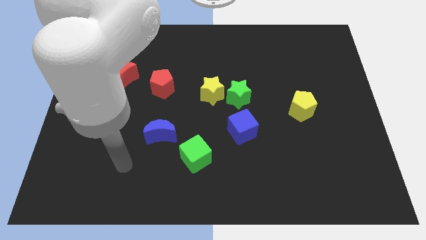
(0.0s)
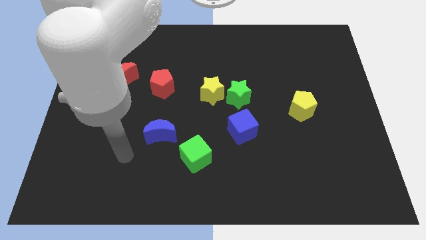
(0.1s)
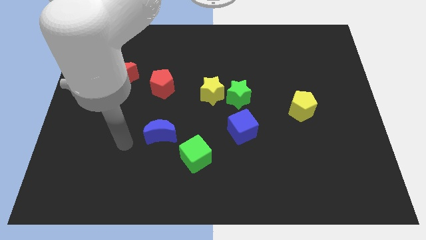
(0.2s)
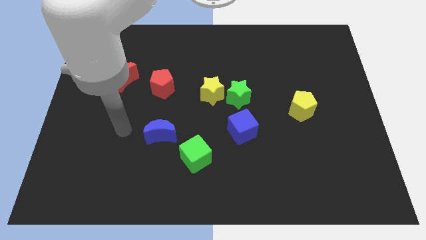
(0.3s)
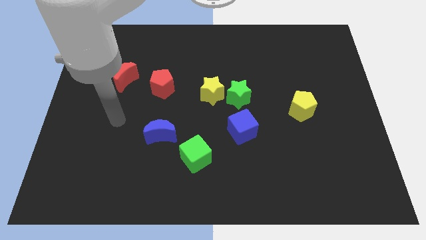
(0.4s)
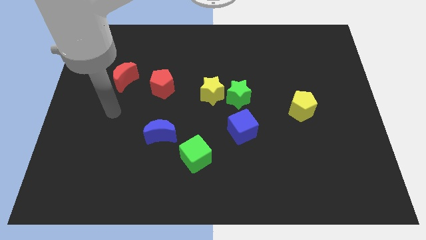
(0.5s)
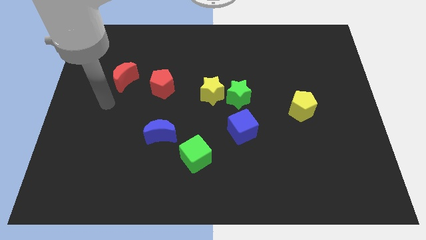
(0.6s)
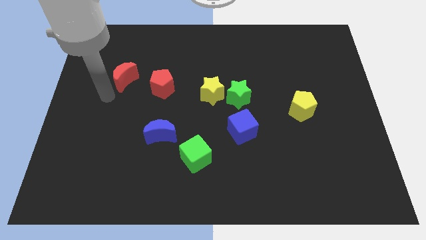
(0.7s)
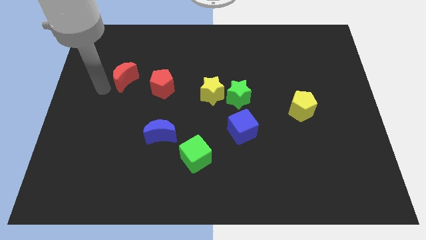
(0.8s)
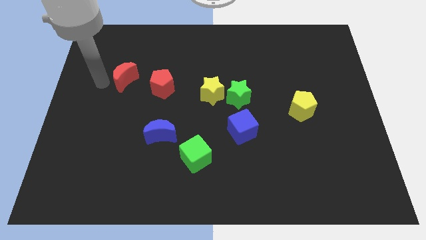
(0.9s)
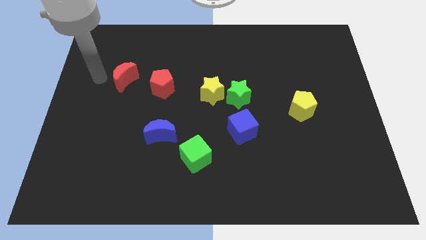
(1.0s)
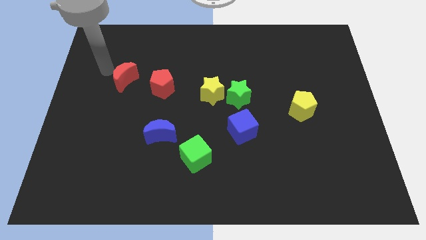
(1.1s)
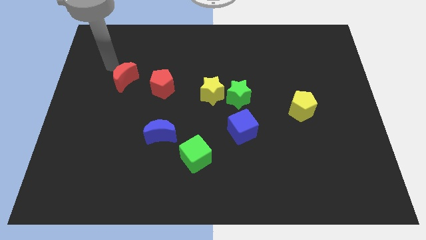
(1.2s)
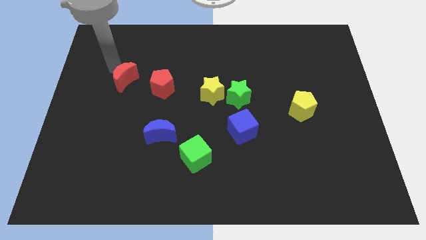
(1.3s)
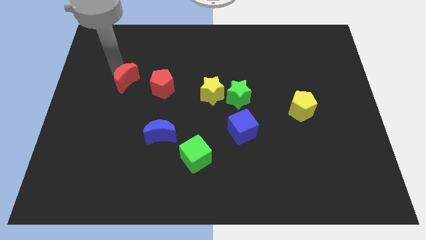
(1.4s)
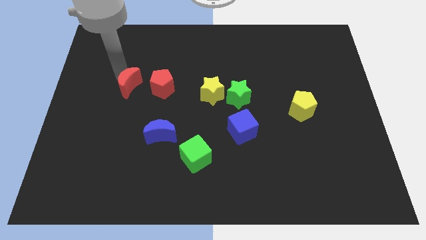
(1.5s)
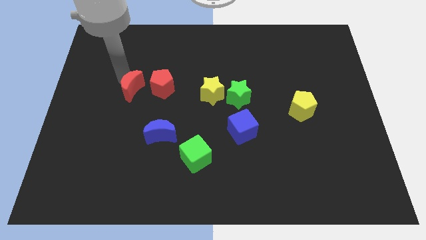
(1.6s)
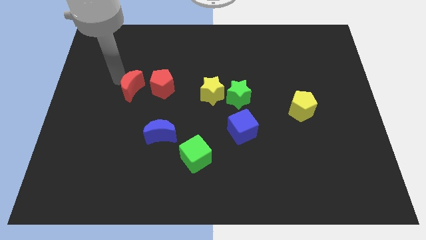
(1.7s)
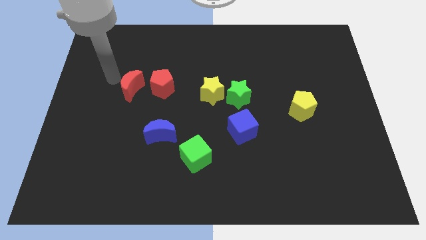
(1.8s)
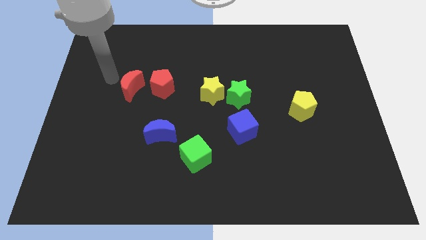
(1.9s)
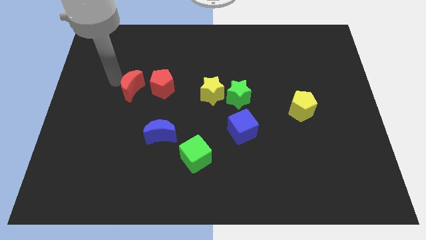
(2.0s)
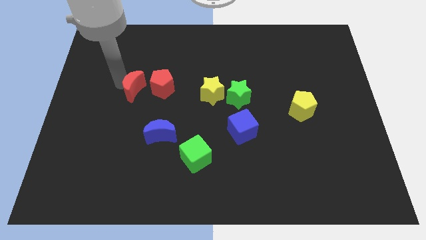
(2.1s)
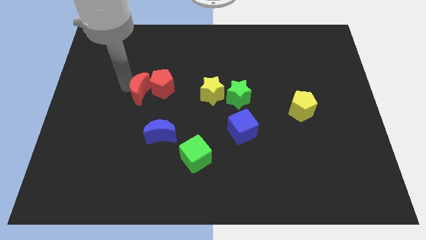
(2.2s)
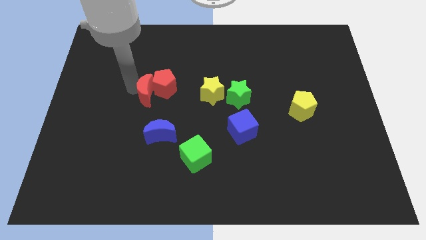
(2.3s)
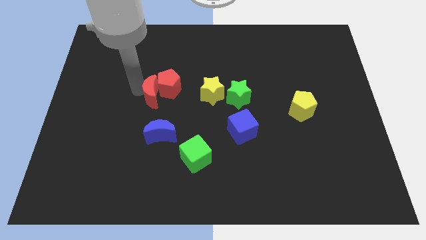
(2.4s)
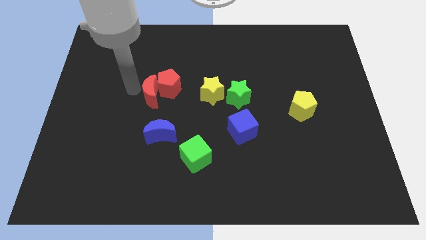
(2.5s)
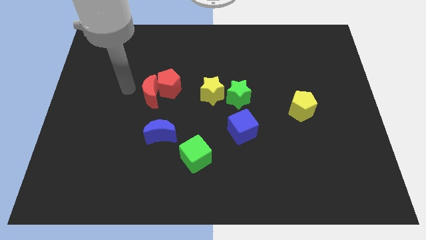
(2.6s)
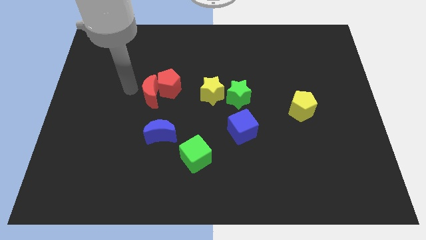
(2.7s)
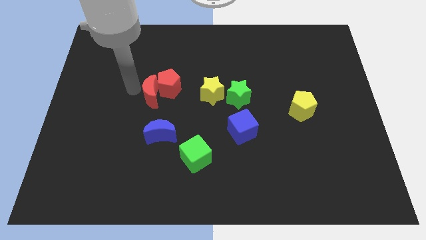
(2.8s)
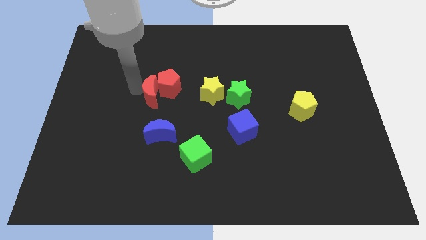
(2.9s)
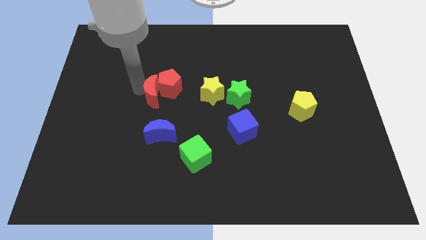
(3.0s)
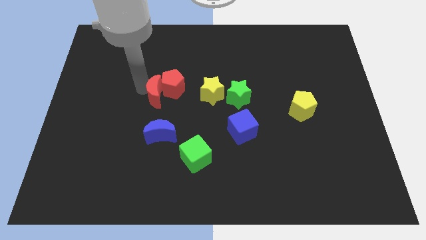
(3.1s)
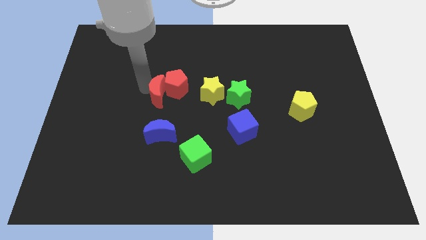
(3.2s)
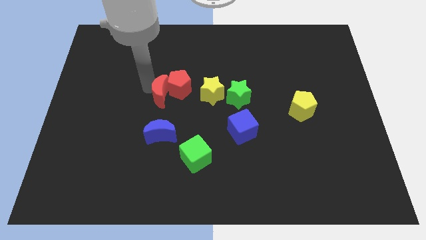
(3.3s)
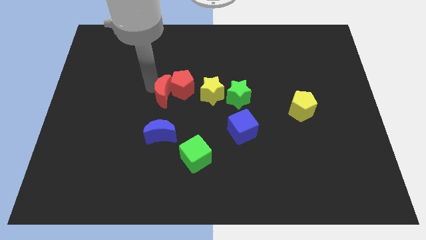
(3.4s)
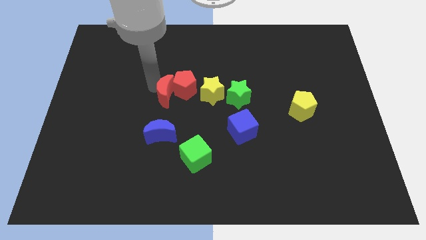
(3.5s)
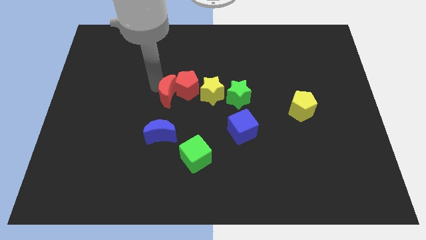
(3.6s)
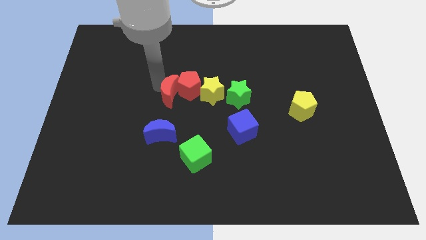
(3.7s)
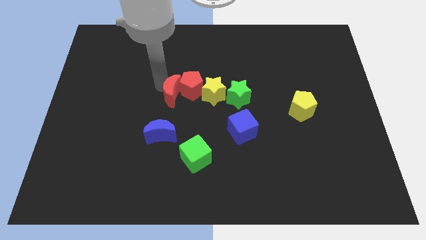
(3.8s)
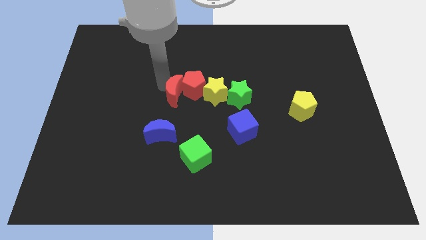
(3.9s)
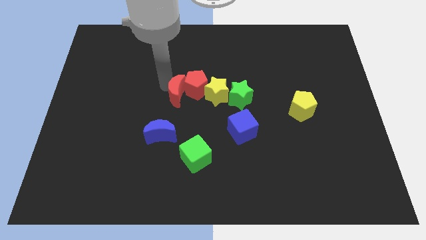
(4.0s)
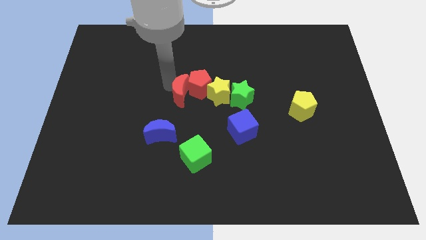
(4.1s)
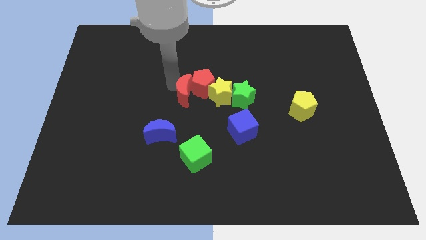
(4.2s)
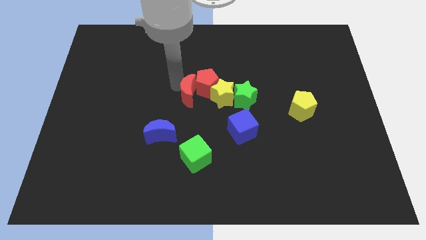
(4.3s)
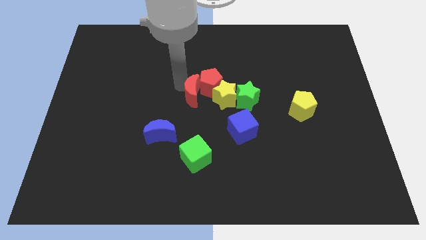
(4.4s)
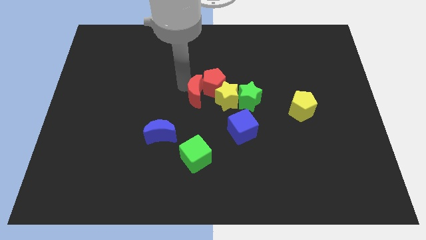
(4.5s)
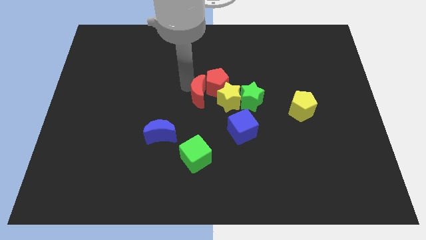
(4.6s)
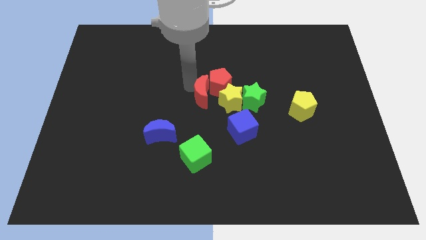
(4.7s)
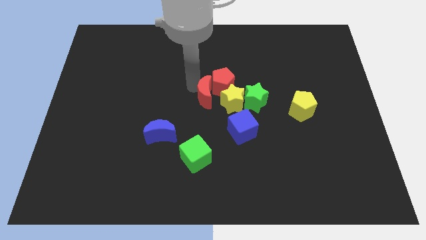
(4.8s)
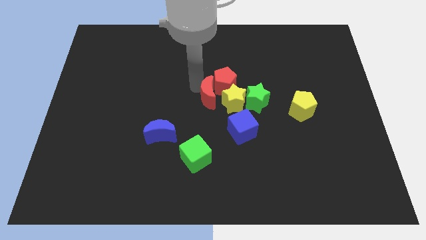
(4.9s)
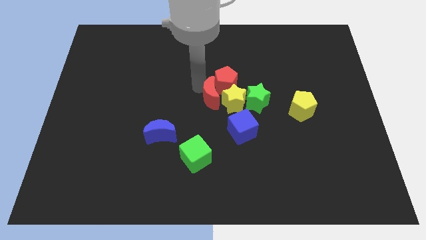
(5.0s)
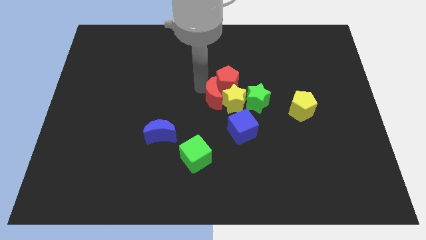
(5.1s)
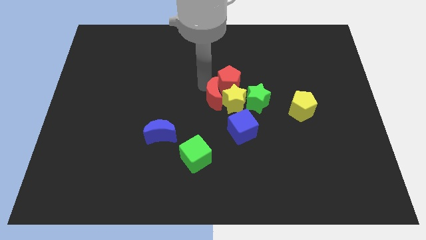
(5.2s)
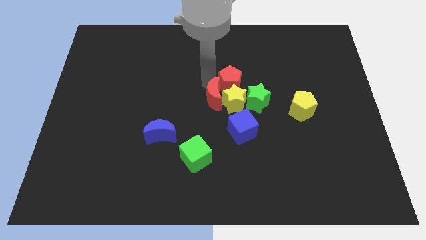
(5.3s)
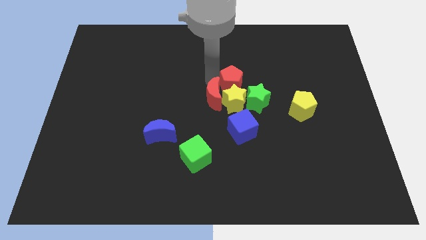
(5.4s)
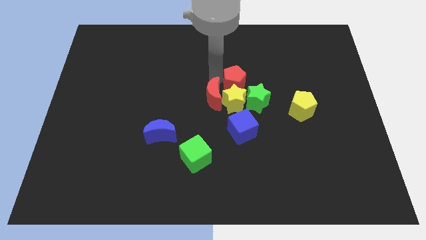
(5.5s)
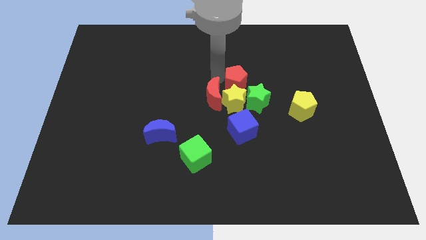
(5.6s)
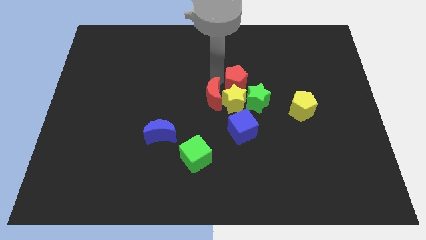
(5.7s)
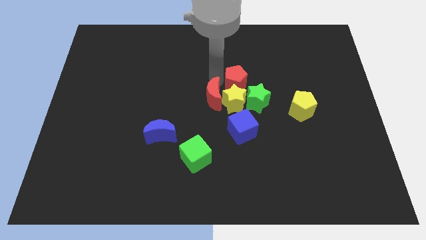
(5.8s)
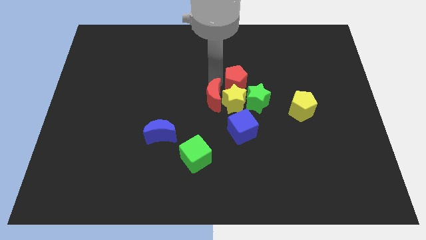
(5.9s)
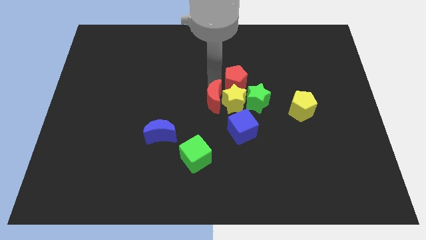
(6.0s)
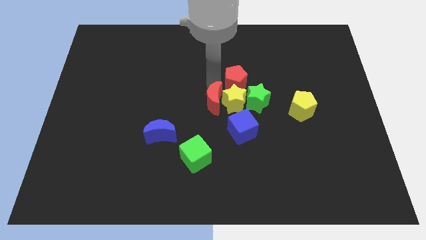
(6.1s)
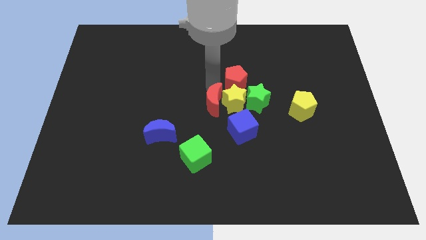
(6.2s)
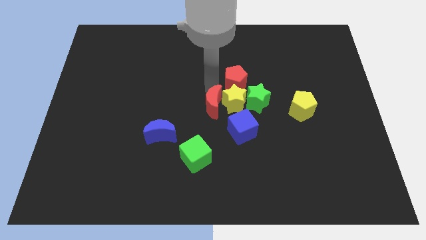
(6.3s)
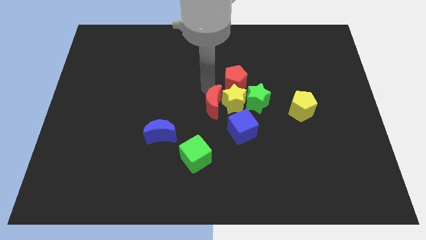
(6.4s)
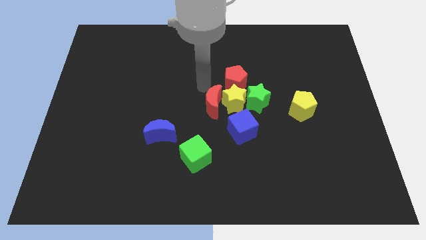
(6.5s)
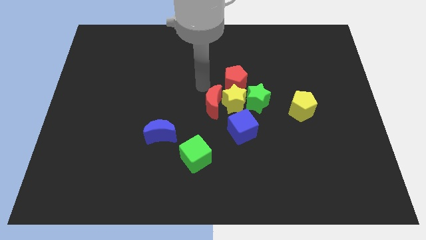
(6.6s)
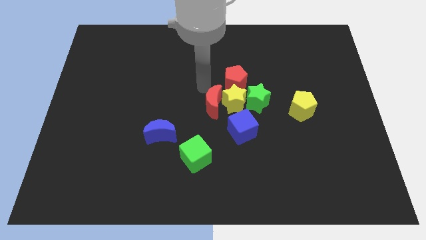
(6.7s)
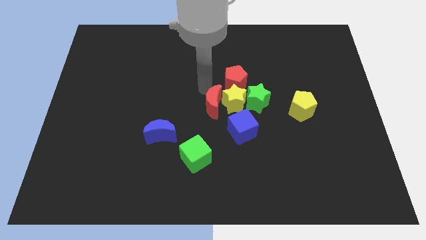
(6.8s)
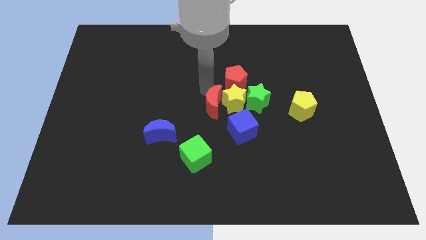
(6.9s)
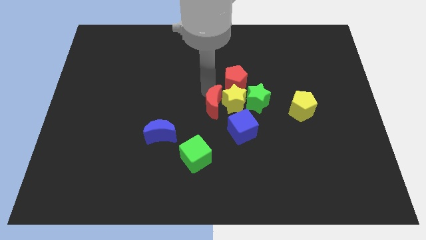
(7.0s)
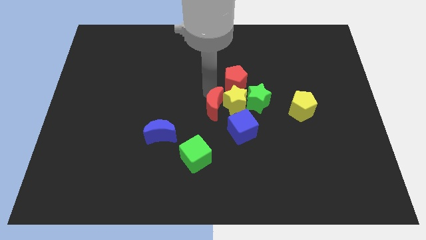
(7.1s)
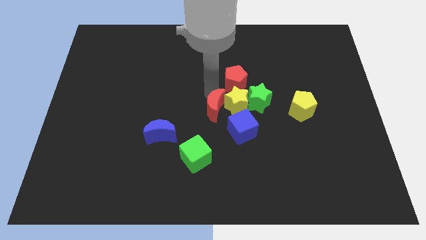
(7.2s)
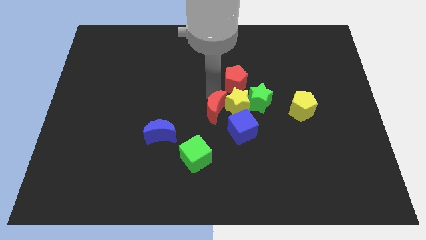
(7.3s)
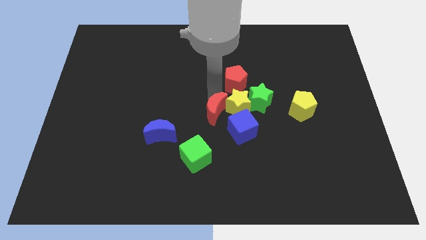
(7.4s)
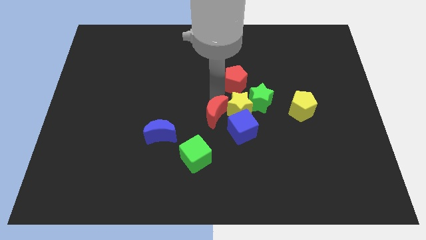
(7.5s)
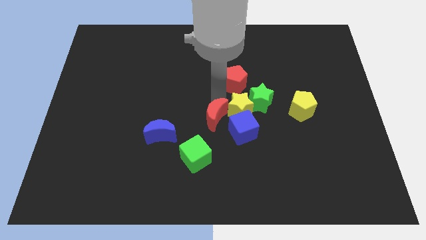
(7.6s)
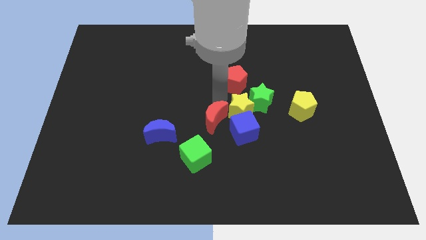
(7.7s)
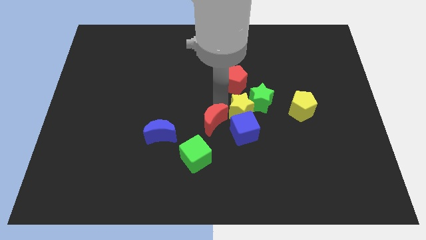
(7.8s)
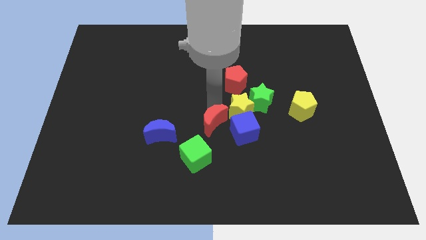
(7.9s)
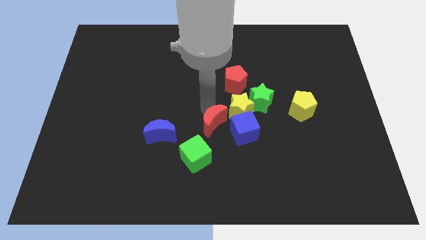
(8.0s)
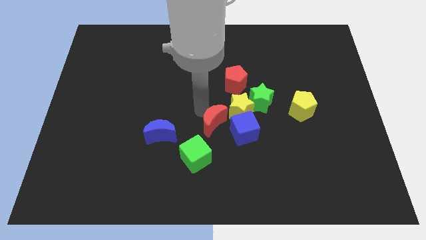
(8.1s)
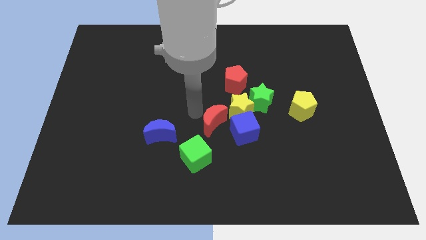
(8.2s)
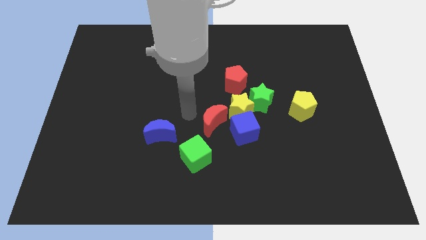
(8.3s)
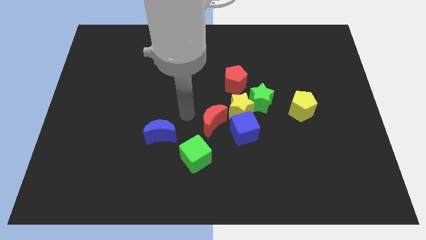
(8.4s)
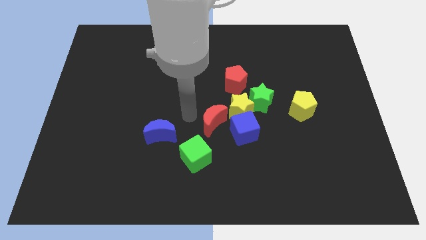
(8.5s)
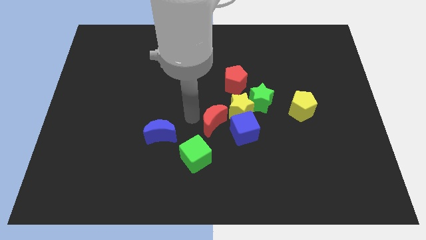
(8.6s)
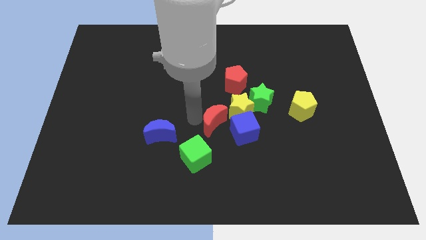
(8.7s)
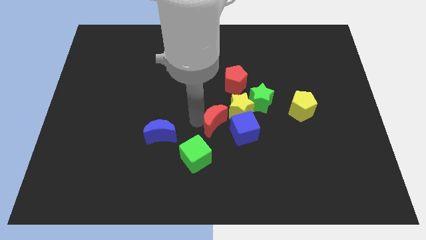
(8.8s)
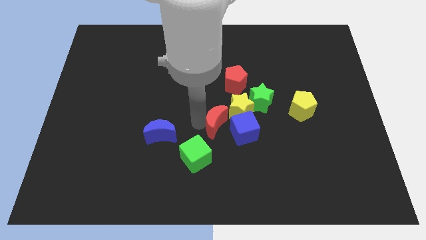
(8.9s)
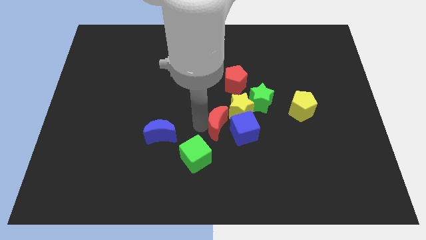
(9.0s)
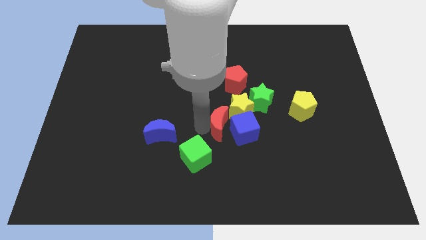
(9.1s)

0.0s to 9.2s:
move the red moon next to the blue cube
